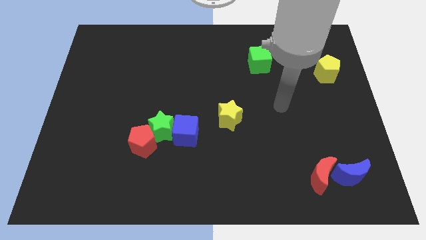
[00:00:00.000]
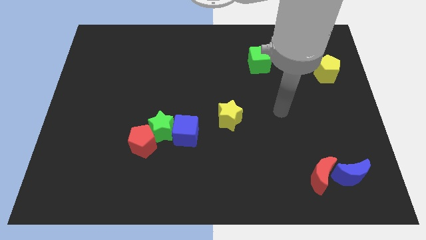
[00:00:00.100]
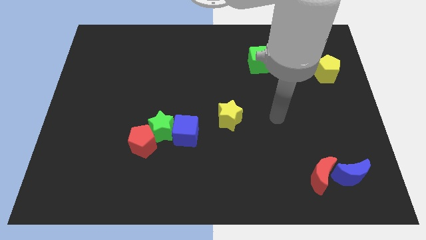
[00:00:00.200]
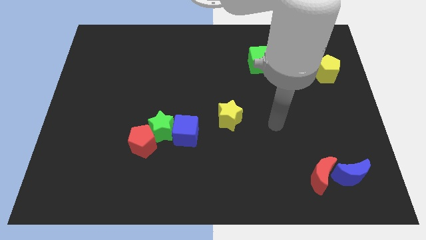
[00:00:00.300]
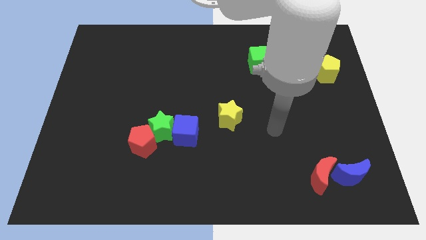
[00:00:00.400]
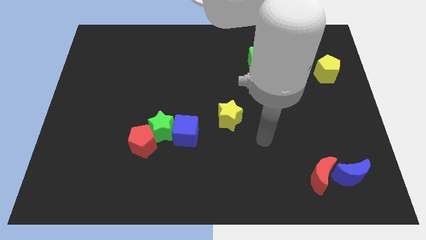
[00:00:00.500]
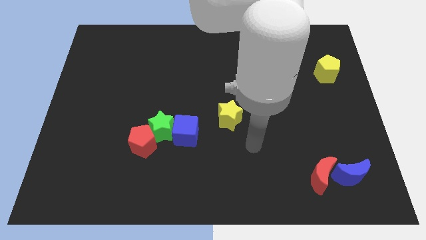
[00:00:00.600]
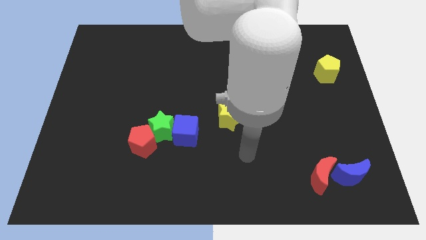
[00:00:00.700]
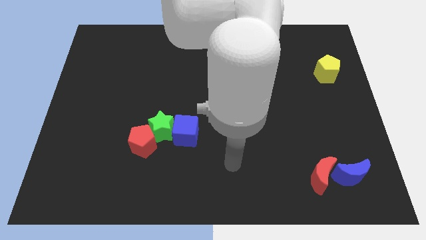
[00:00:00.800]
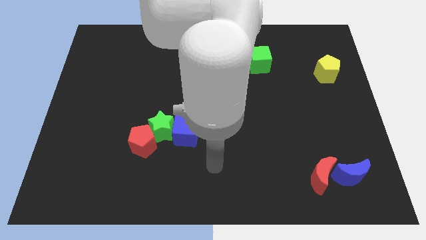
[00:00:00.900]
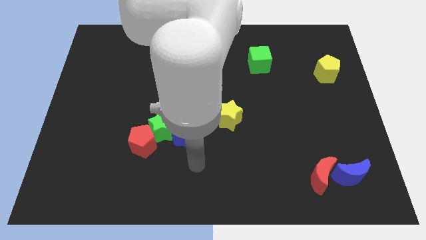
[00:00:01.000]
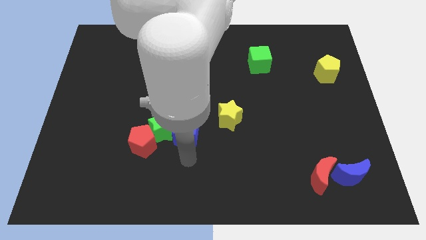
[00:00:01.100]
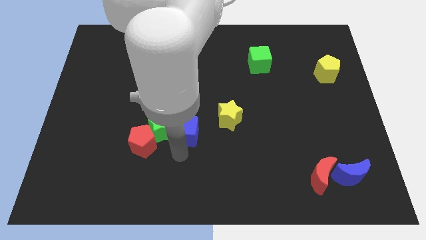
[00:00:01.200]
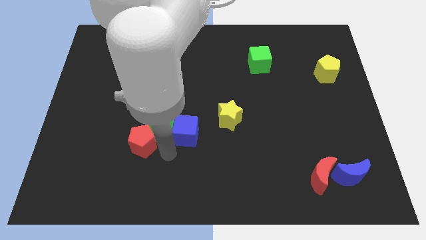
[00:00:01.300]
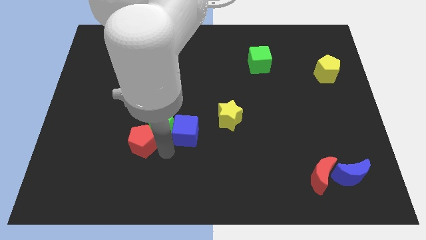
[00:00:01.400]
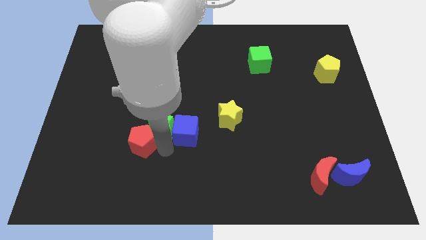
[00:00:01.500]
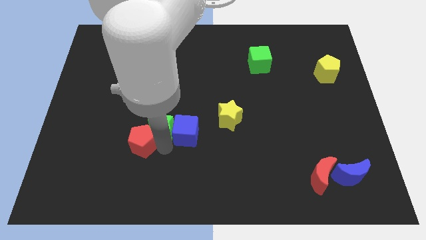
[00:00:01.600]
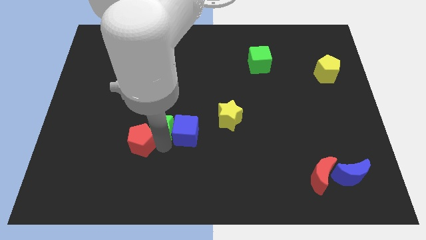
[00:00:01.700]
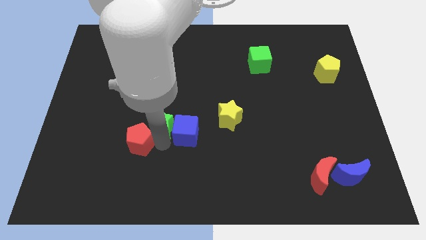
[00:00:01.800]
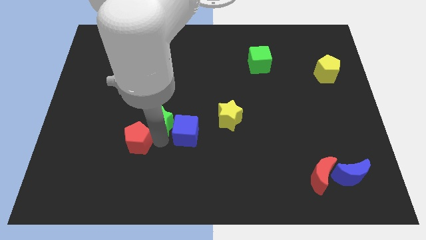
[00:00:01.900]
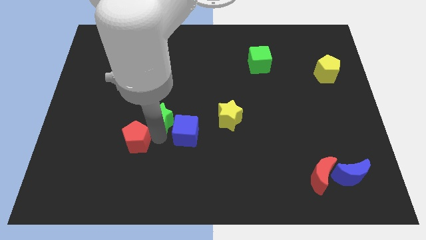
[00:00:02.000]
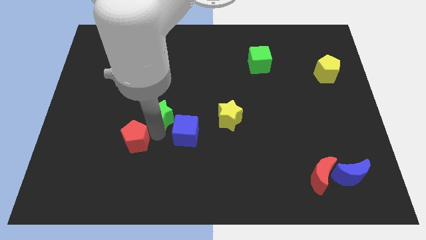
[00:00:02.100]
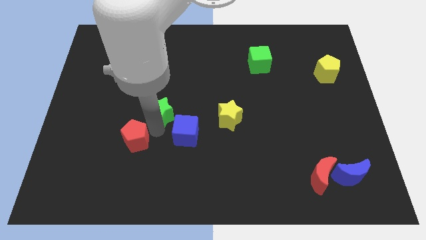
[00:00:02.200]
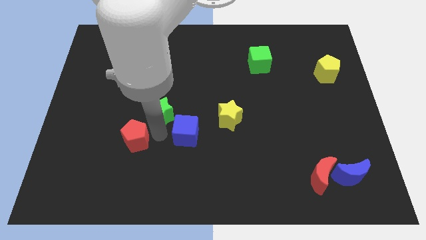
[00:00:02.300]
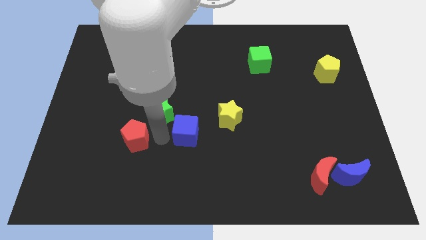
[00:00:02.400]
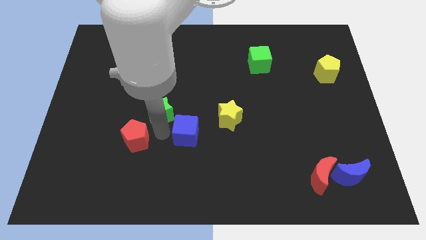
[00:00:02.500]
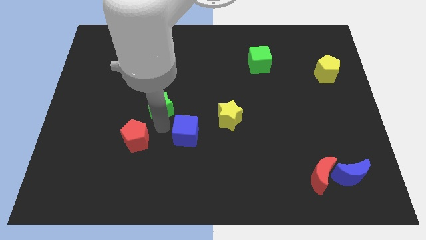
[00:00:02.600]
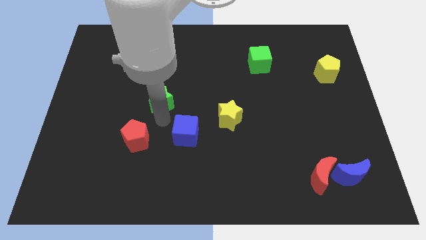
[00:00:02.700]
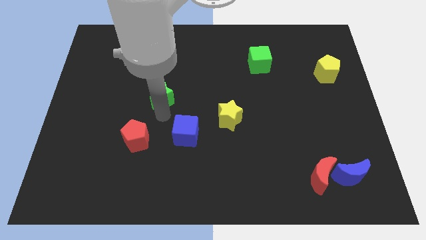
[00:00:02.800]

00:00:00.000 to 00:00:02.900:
pull the green star apart from the blue cube and red pentagon

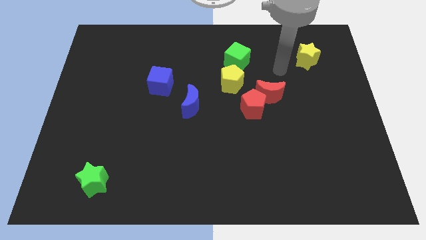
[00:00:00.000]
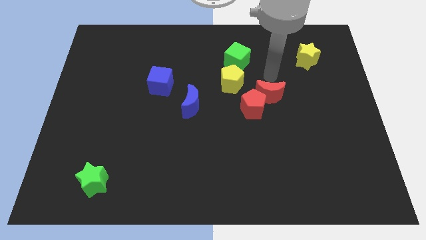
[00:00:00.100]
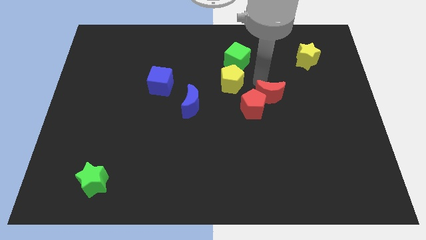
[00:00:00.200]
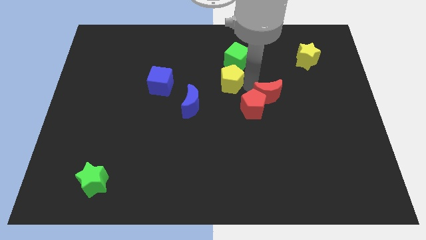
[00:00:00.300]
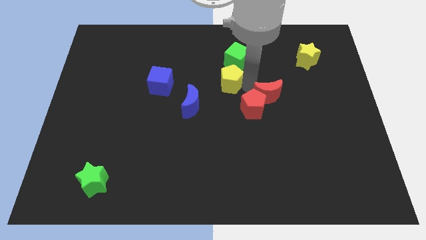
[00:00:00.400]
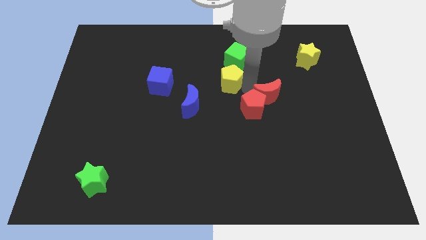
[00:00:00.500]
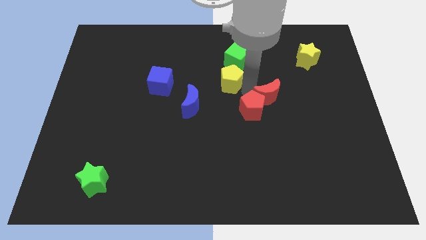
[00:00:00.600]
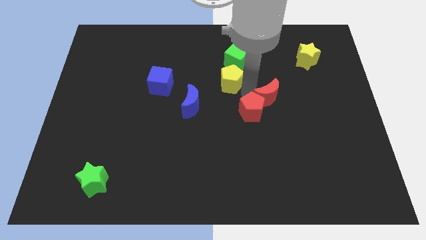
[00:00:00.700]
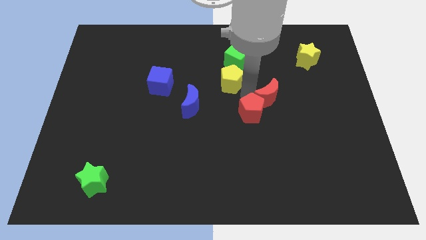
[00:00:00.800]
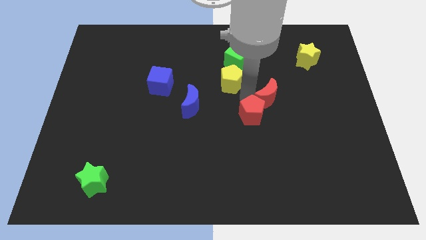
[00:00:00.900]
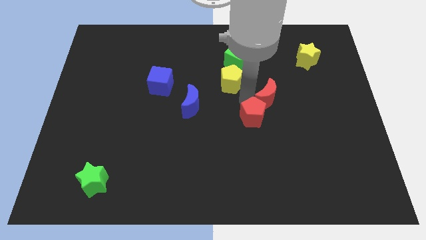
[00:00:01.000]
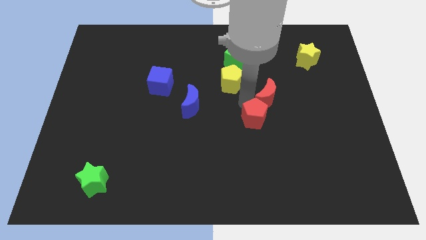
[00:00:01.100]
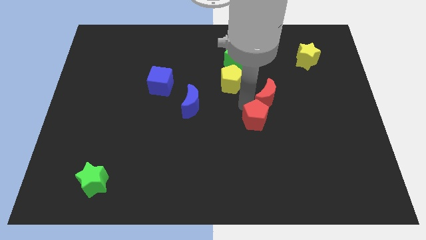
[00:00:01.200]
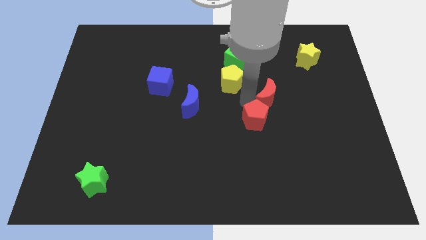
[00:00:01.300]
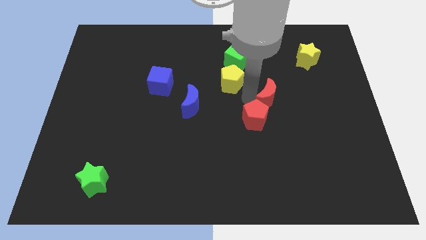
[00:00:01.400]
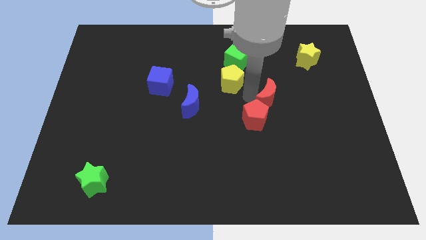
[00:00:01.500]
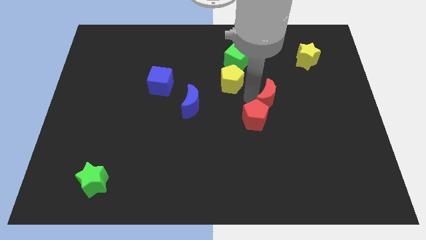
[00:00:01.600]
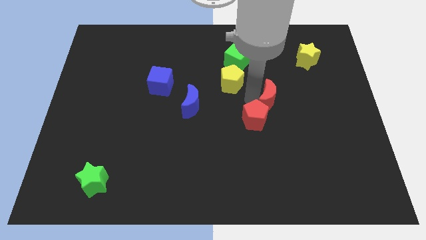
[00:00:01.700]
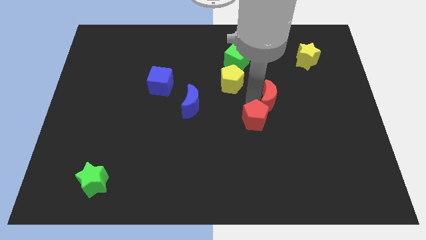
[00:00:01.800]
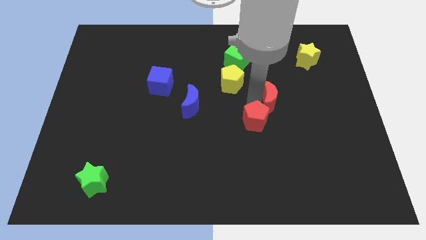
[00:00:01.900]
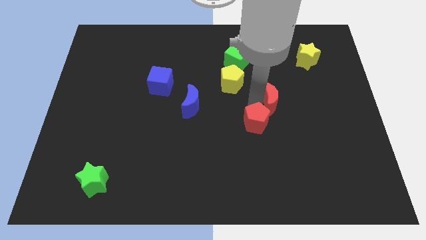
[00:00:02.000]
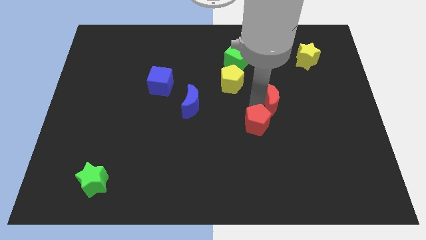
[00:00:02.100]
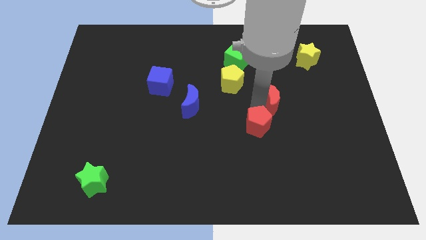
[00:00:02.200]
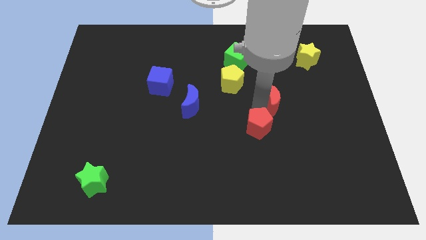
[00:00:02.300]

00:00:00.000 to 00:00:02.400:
move the red pentagon away from the red moon and yellow pentagon

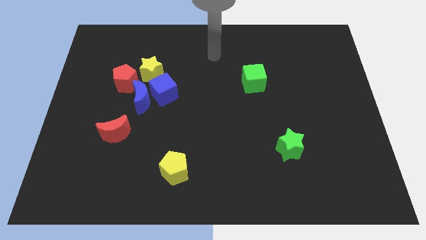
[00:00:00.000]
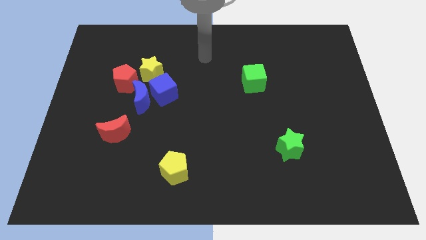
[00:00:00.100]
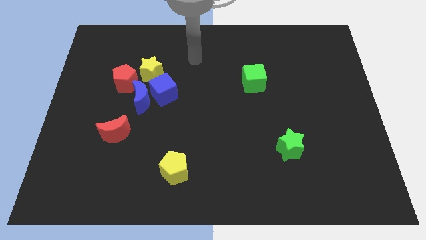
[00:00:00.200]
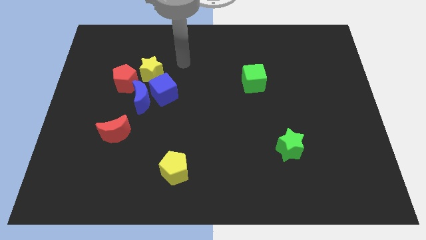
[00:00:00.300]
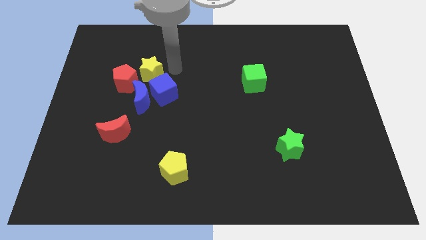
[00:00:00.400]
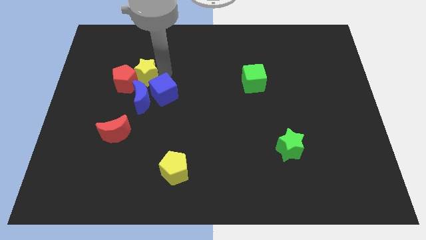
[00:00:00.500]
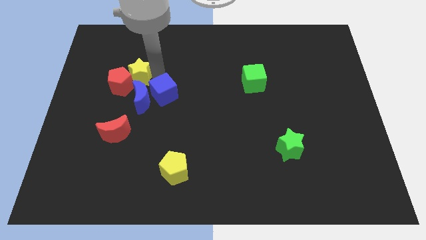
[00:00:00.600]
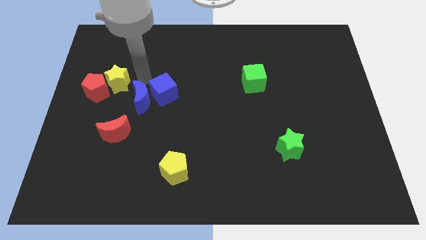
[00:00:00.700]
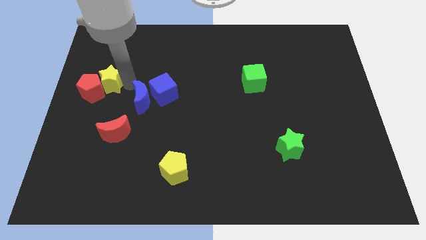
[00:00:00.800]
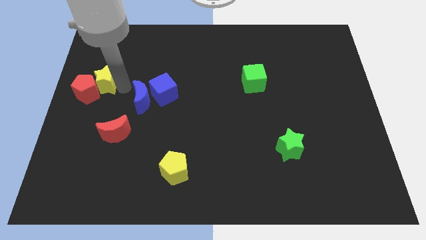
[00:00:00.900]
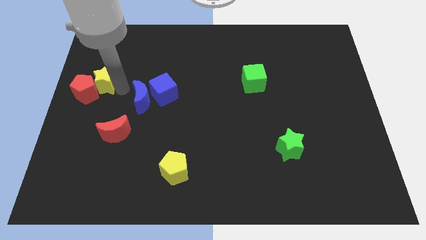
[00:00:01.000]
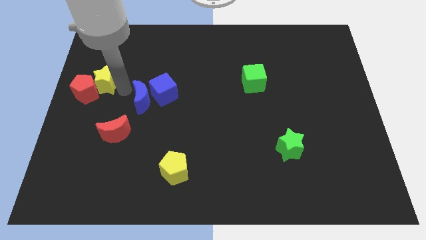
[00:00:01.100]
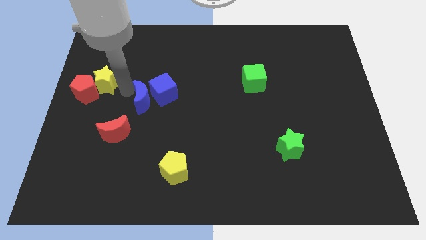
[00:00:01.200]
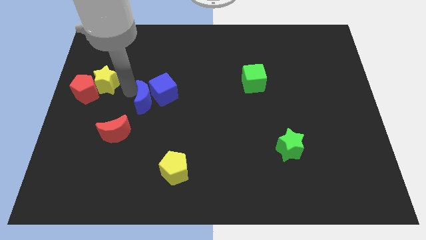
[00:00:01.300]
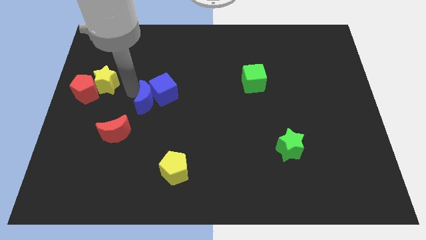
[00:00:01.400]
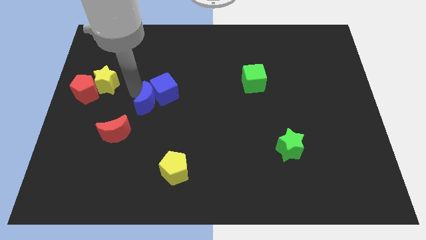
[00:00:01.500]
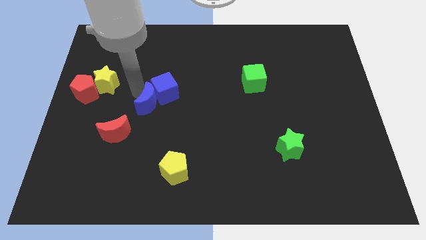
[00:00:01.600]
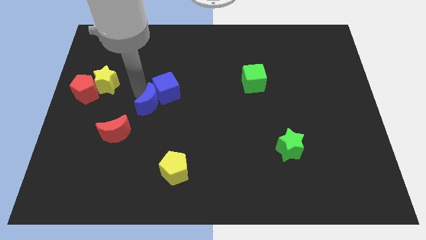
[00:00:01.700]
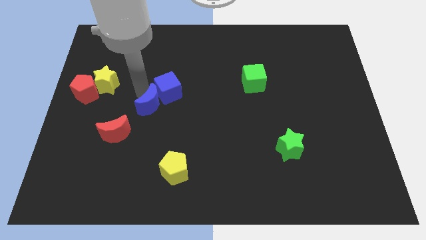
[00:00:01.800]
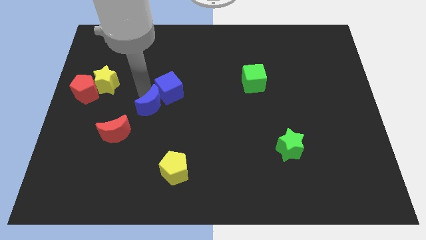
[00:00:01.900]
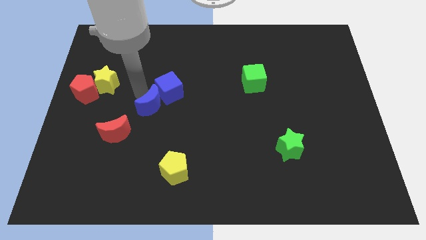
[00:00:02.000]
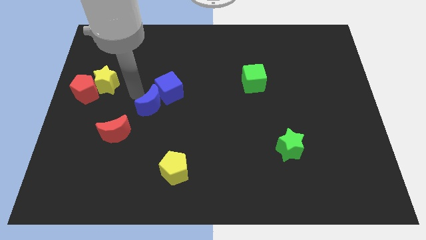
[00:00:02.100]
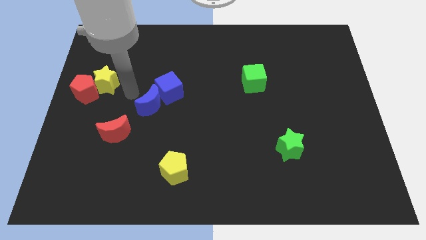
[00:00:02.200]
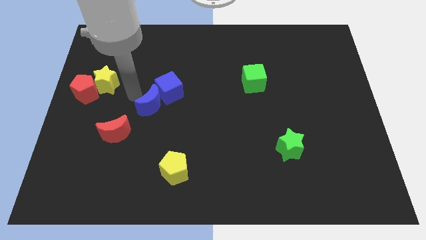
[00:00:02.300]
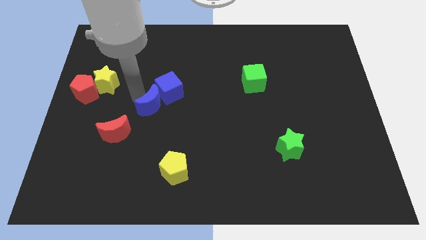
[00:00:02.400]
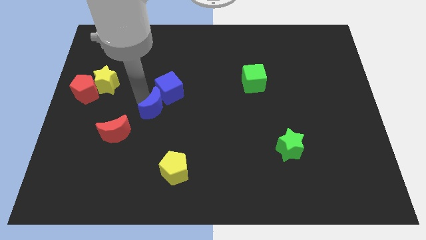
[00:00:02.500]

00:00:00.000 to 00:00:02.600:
move the blue moon away from the group

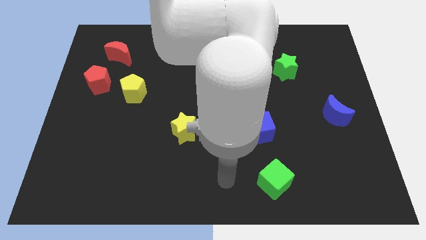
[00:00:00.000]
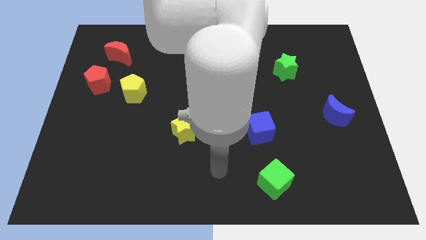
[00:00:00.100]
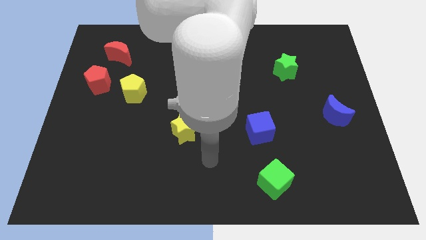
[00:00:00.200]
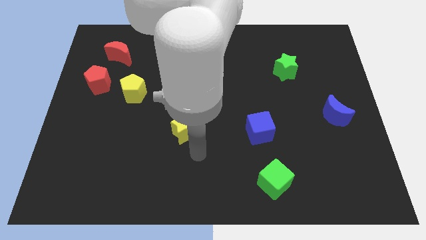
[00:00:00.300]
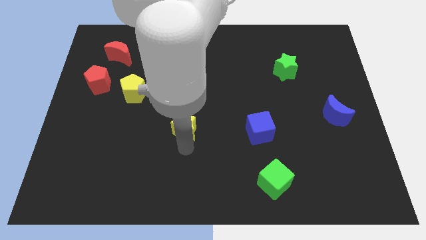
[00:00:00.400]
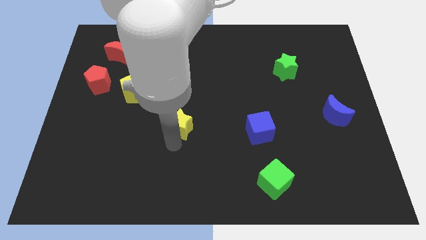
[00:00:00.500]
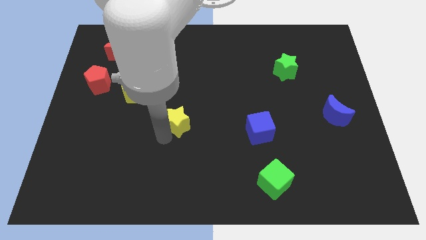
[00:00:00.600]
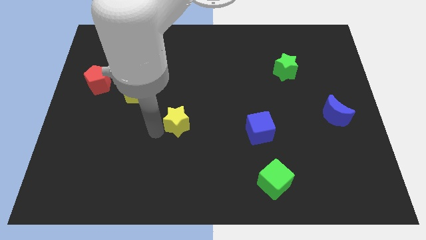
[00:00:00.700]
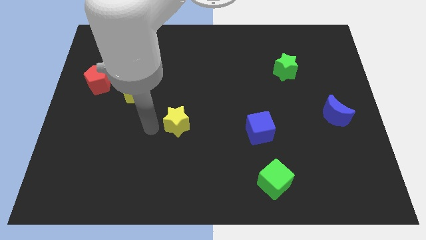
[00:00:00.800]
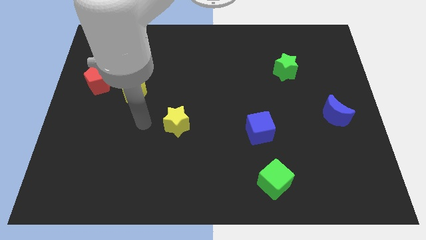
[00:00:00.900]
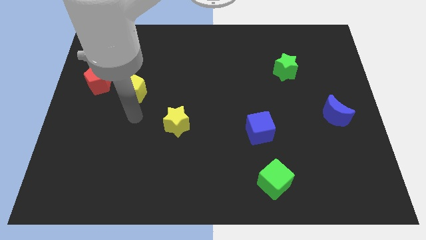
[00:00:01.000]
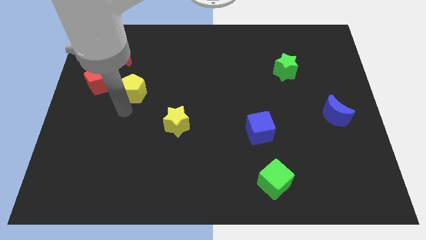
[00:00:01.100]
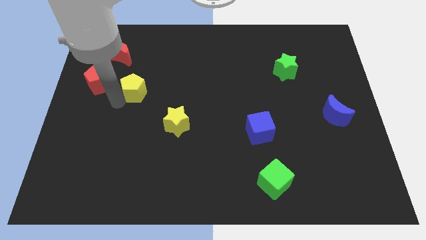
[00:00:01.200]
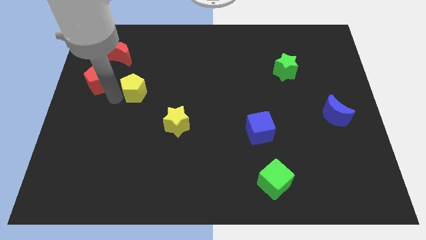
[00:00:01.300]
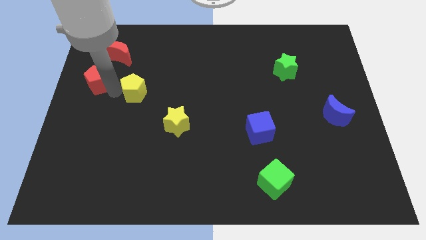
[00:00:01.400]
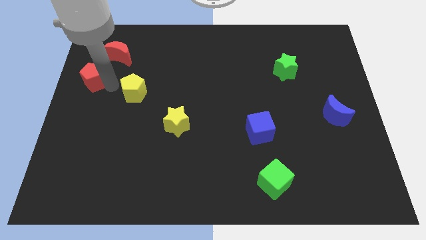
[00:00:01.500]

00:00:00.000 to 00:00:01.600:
pull the yellow pentagon apart from the red pentagon
